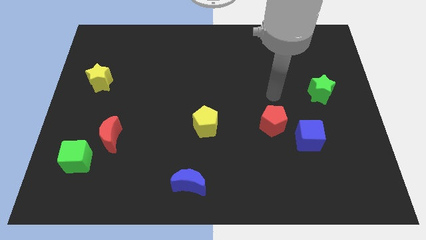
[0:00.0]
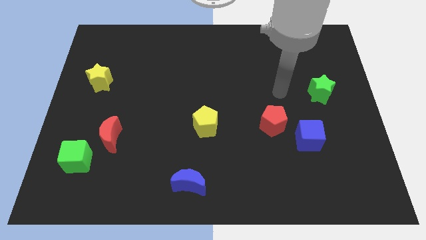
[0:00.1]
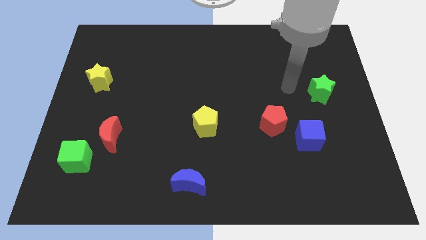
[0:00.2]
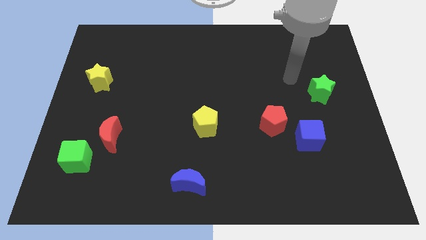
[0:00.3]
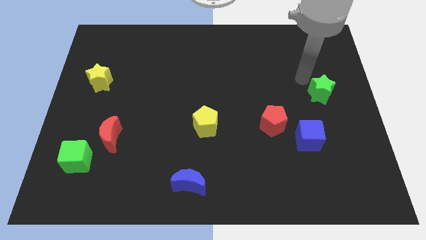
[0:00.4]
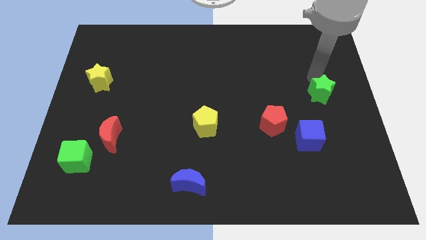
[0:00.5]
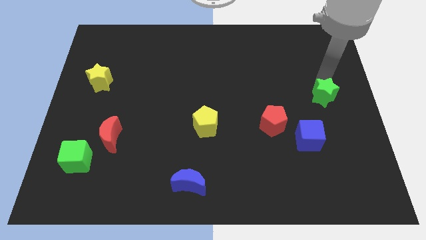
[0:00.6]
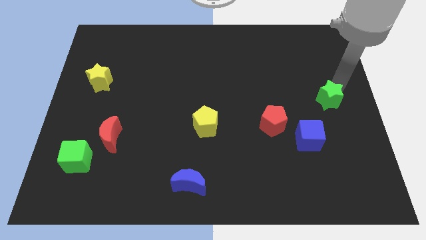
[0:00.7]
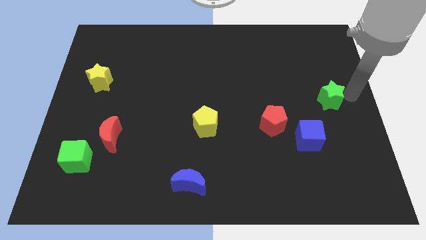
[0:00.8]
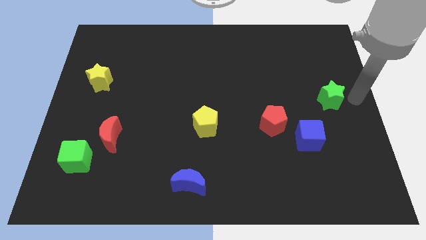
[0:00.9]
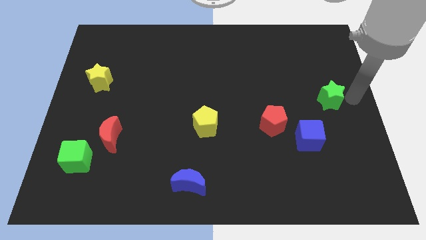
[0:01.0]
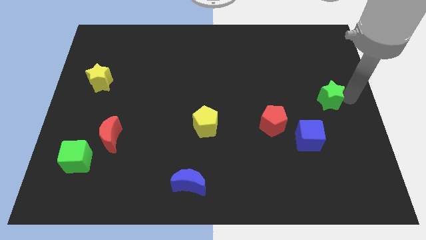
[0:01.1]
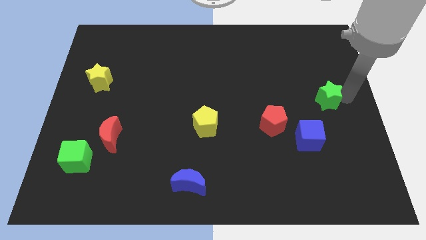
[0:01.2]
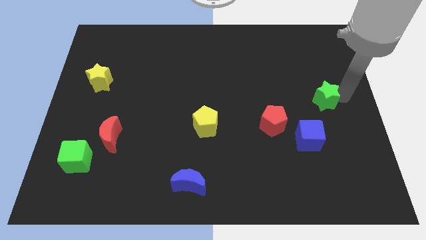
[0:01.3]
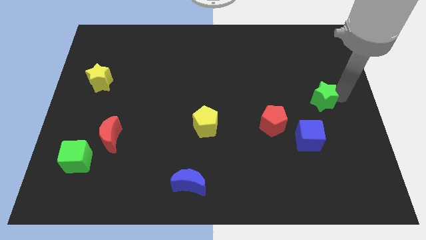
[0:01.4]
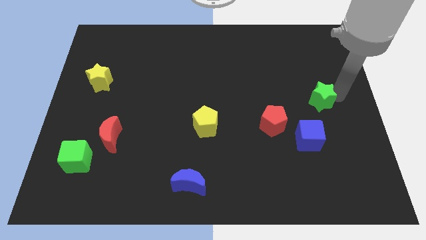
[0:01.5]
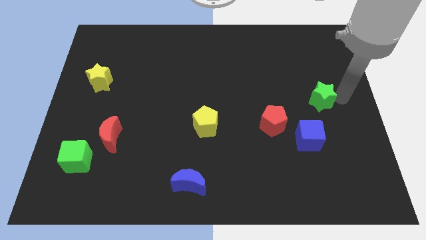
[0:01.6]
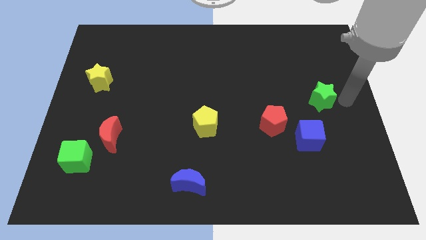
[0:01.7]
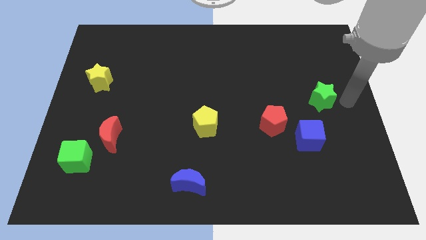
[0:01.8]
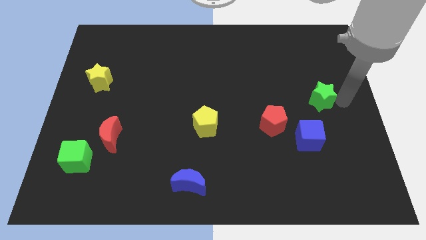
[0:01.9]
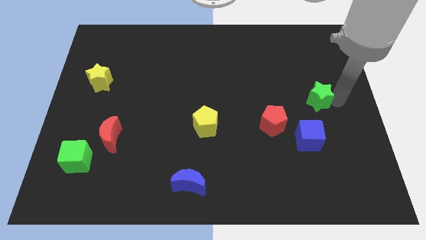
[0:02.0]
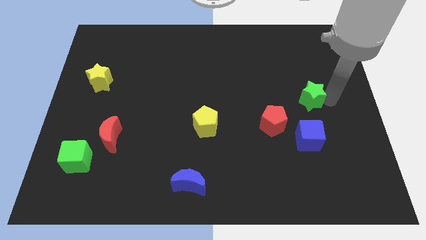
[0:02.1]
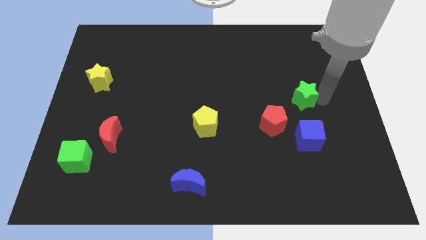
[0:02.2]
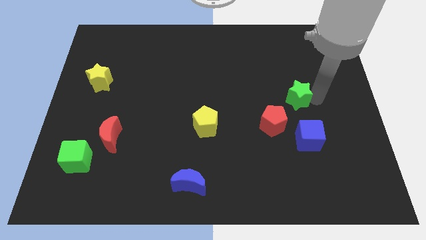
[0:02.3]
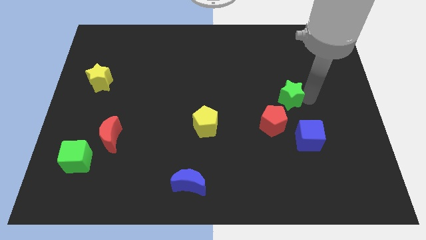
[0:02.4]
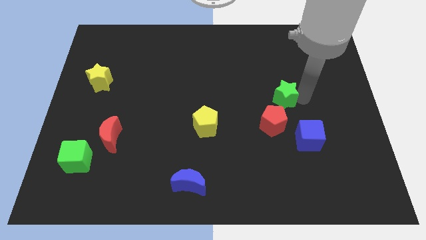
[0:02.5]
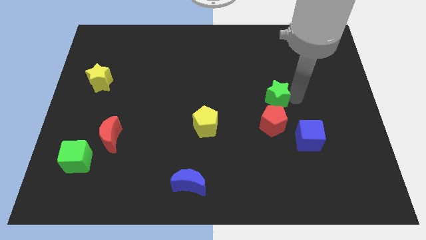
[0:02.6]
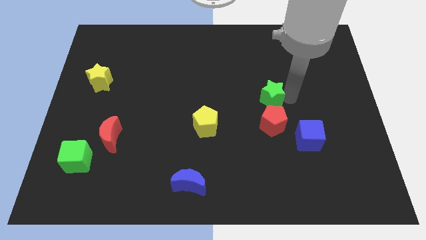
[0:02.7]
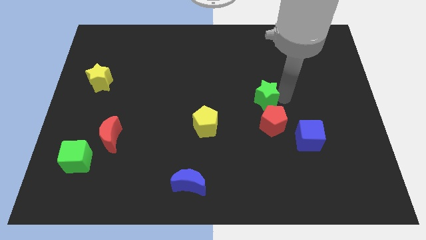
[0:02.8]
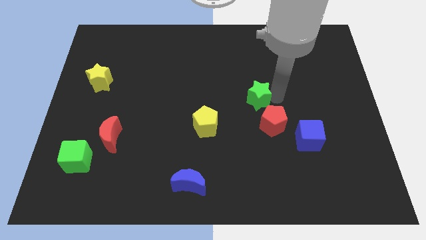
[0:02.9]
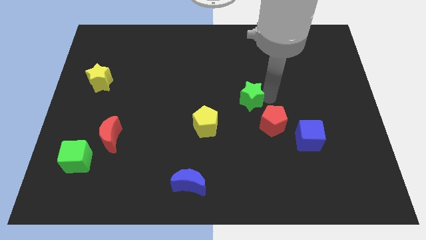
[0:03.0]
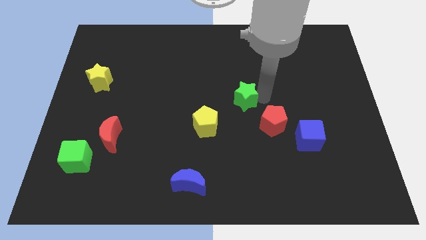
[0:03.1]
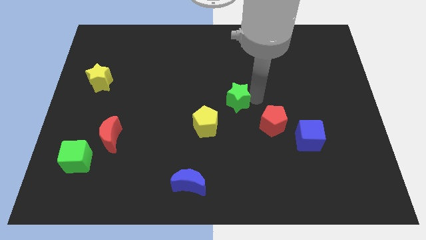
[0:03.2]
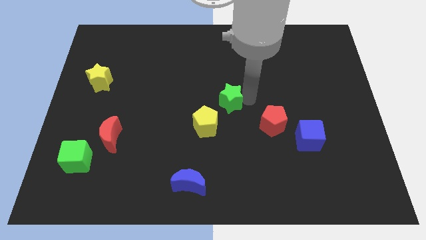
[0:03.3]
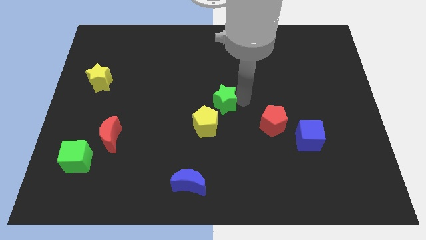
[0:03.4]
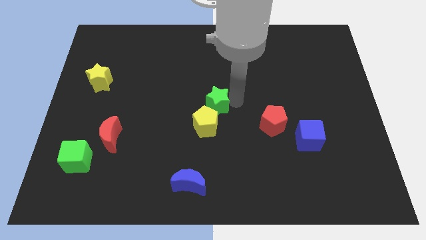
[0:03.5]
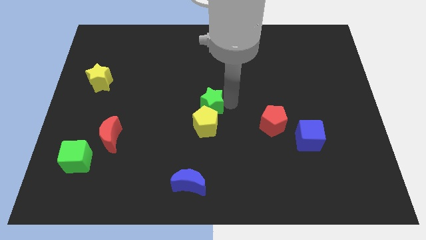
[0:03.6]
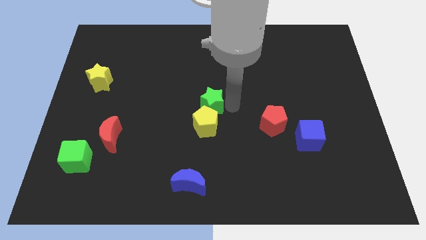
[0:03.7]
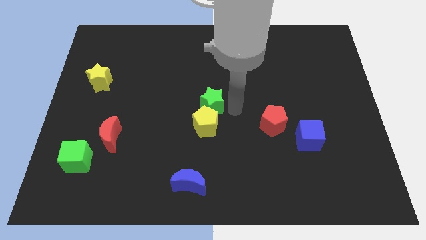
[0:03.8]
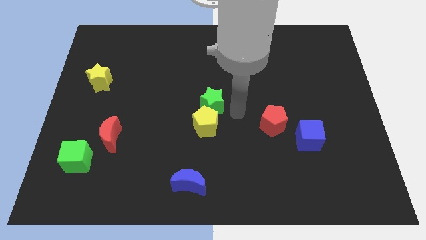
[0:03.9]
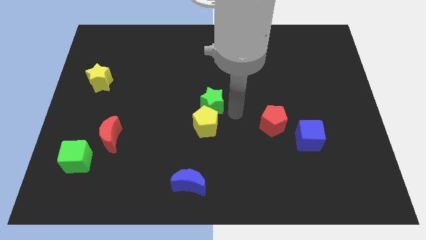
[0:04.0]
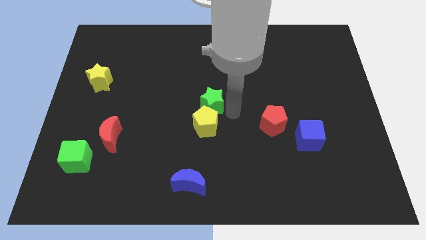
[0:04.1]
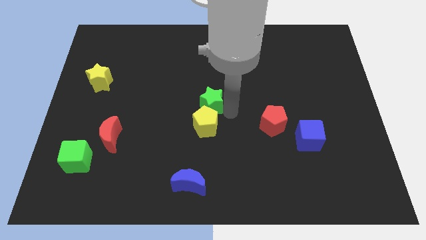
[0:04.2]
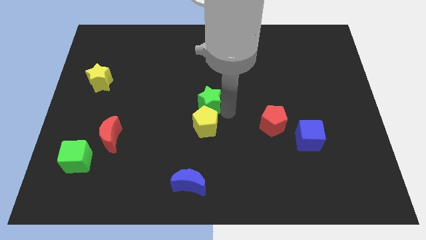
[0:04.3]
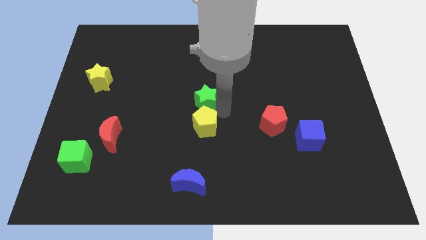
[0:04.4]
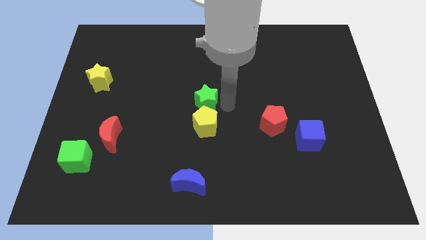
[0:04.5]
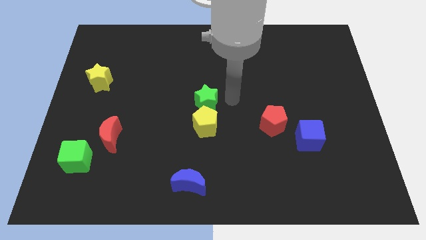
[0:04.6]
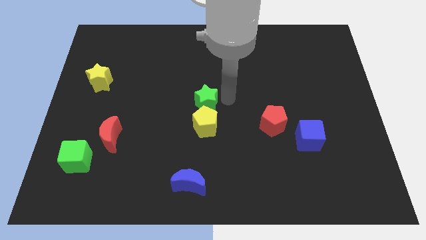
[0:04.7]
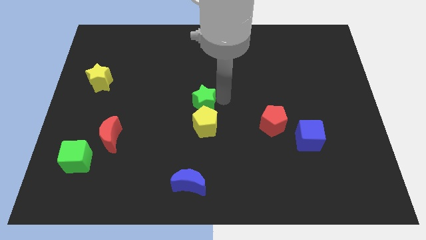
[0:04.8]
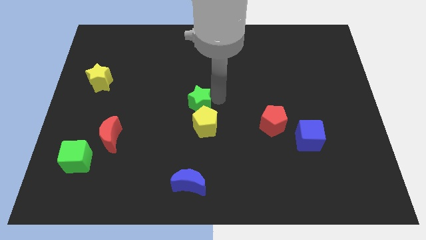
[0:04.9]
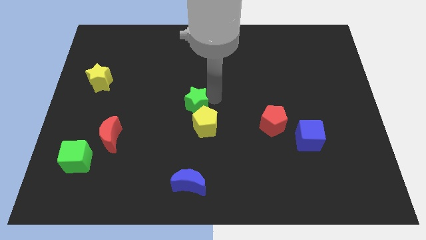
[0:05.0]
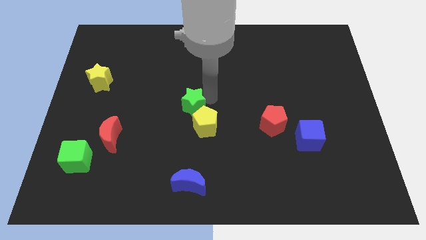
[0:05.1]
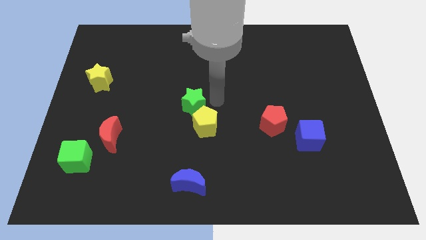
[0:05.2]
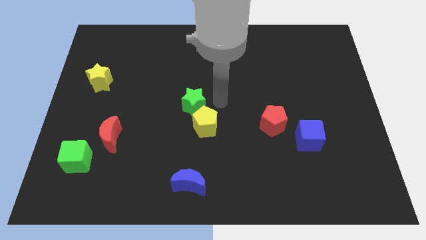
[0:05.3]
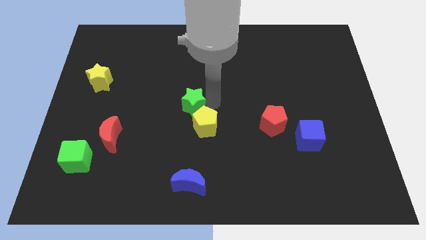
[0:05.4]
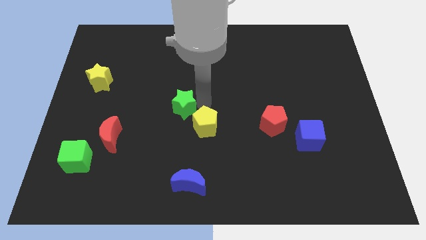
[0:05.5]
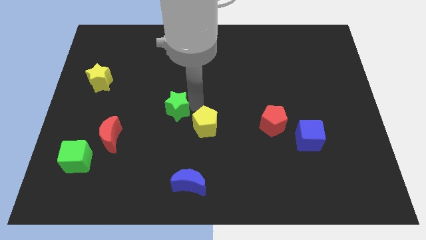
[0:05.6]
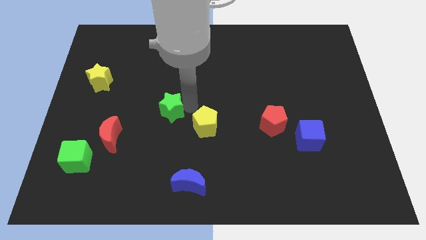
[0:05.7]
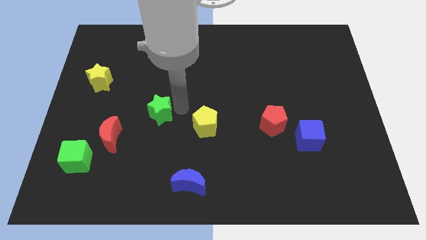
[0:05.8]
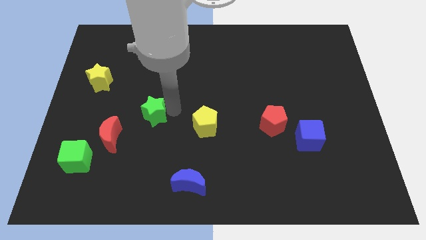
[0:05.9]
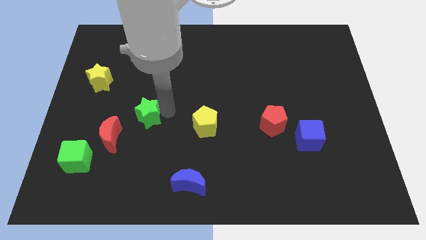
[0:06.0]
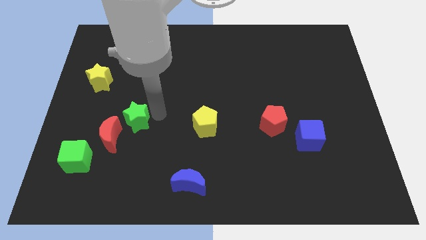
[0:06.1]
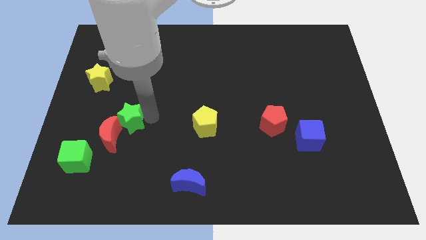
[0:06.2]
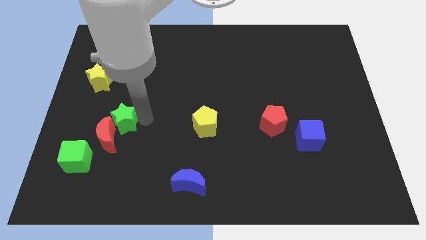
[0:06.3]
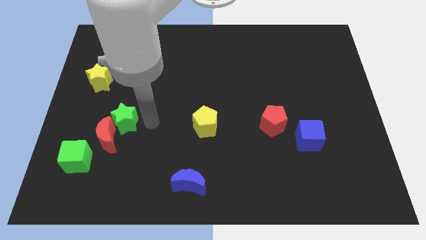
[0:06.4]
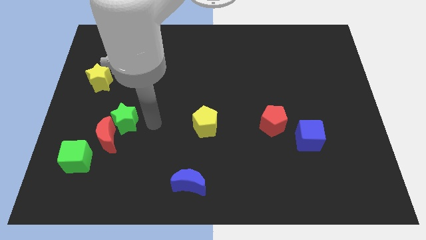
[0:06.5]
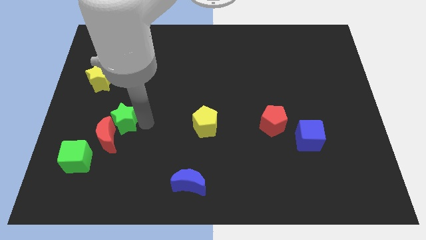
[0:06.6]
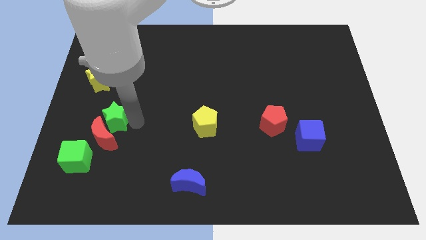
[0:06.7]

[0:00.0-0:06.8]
slide the green star diagonally up and to the left of the red moon
